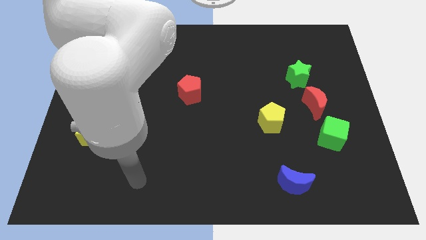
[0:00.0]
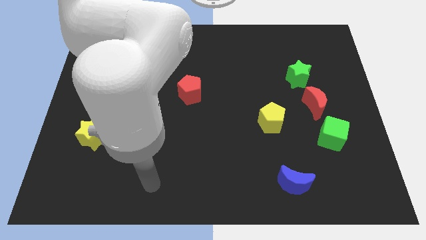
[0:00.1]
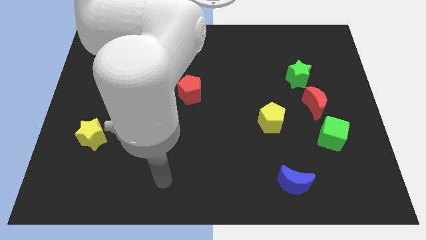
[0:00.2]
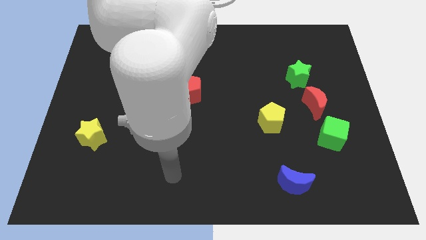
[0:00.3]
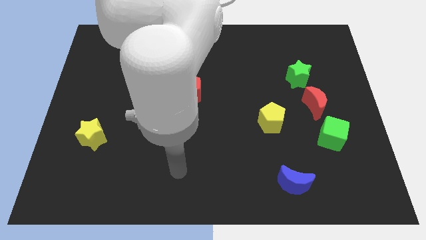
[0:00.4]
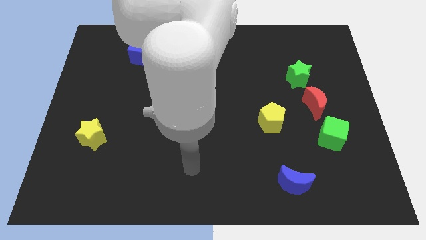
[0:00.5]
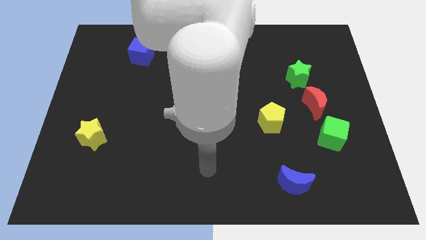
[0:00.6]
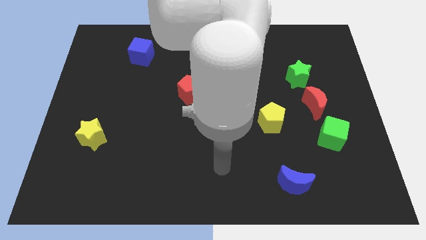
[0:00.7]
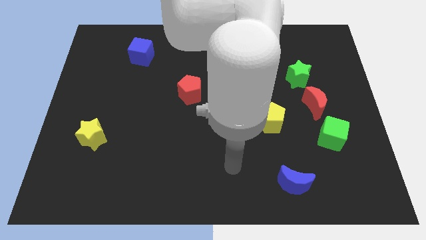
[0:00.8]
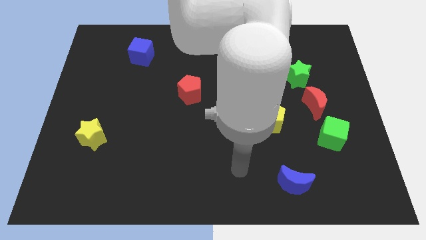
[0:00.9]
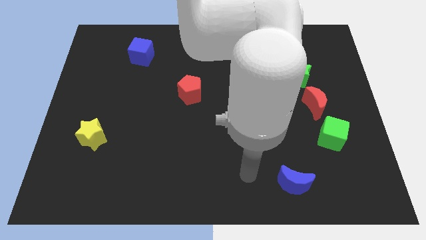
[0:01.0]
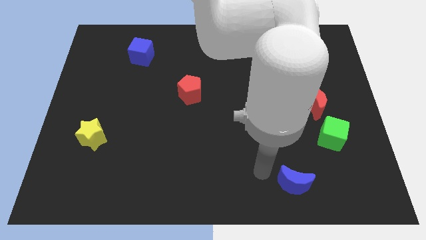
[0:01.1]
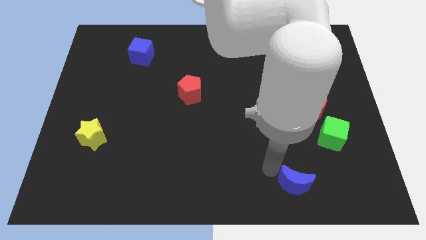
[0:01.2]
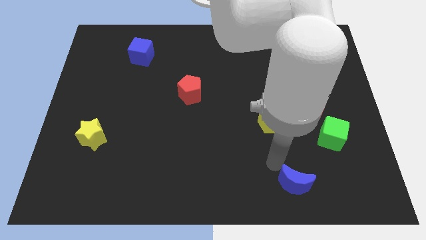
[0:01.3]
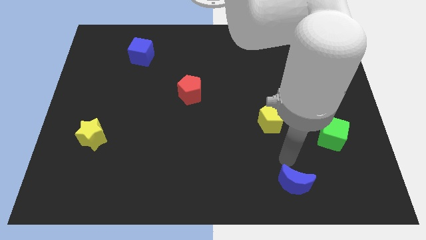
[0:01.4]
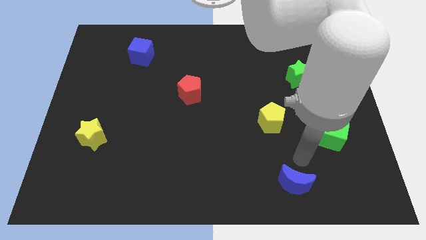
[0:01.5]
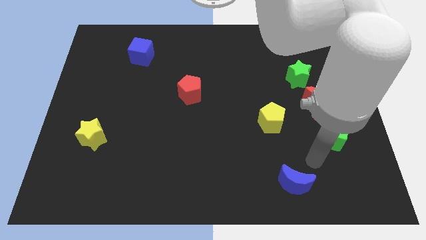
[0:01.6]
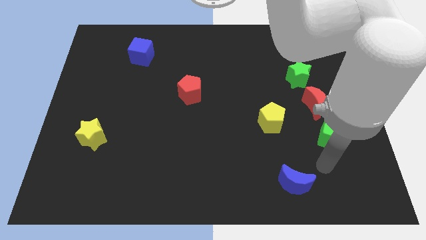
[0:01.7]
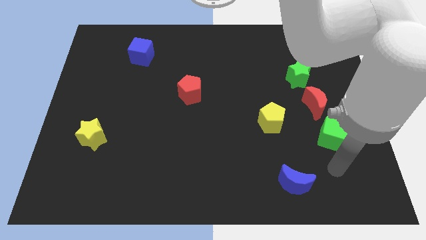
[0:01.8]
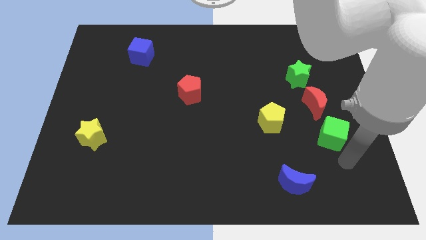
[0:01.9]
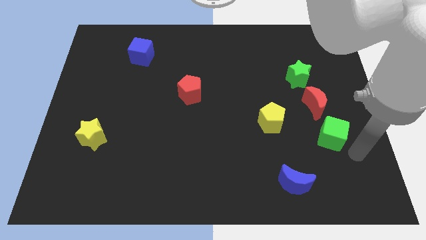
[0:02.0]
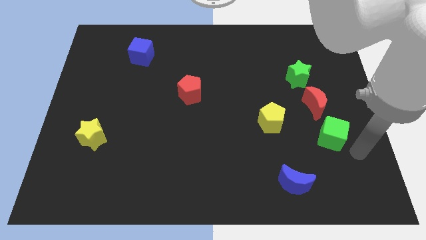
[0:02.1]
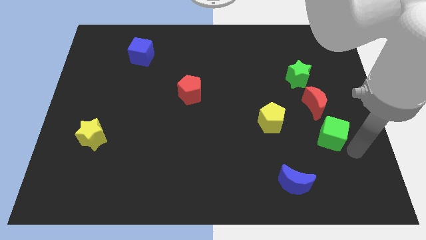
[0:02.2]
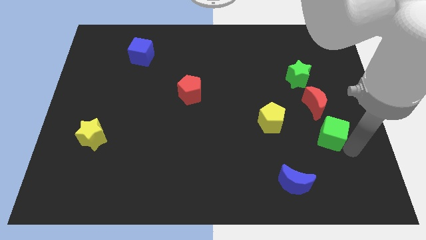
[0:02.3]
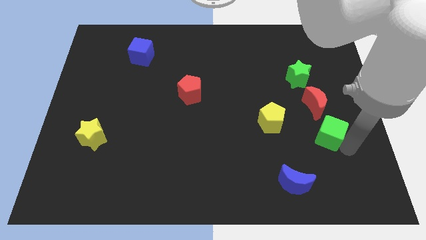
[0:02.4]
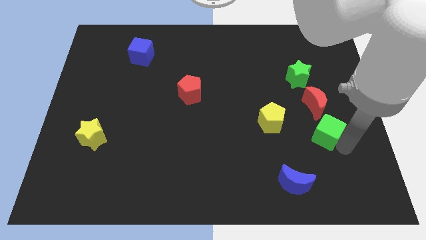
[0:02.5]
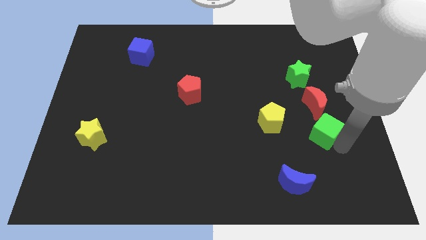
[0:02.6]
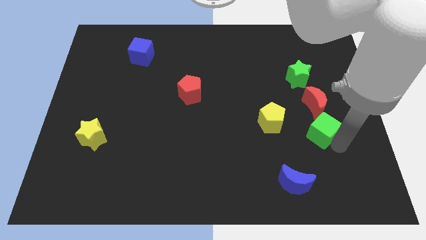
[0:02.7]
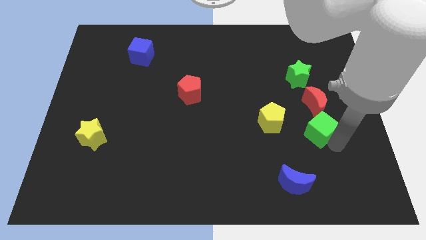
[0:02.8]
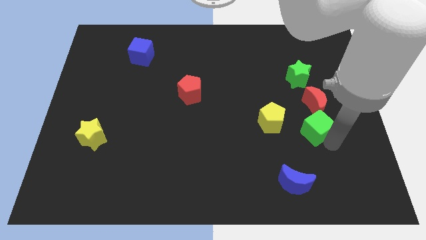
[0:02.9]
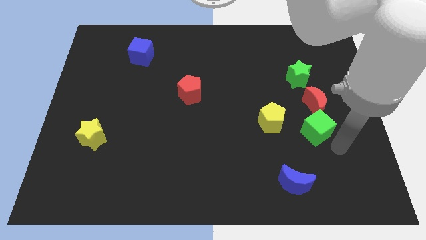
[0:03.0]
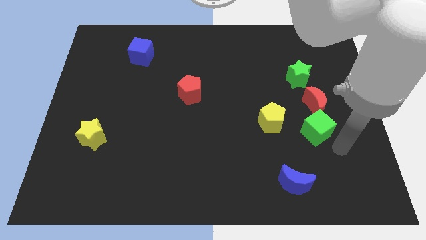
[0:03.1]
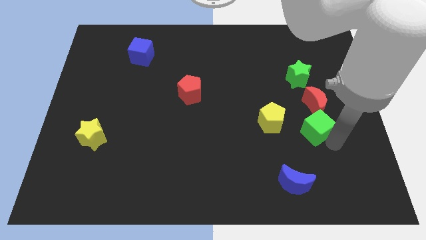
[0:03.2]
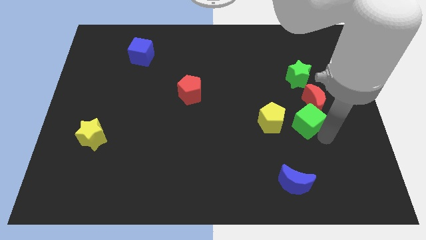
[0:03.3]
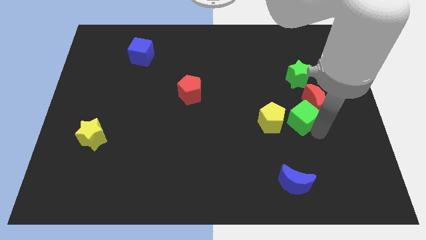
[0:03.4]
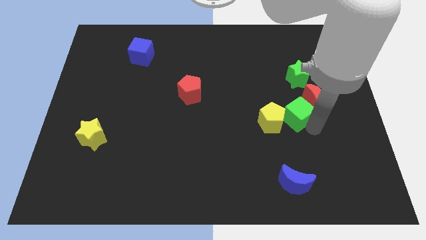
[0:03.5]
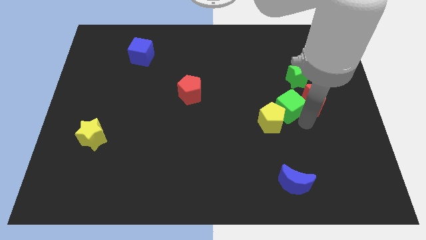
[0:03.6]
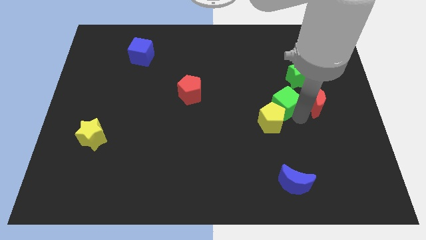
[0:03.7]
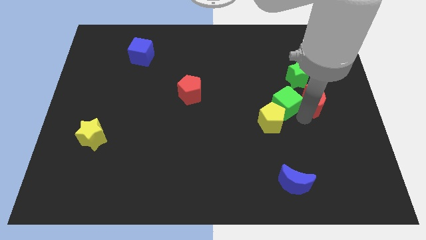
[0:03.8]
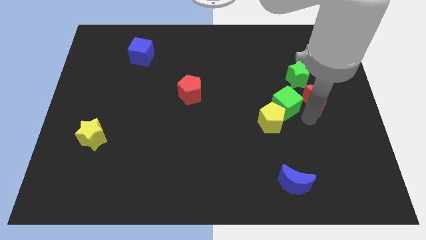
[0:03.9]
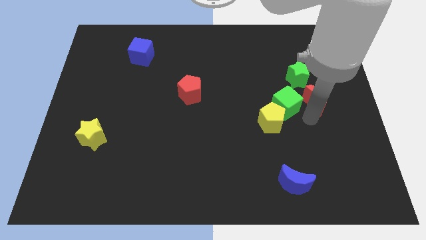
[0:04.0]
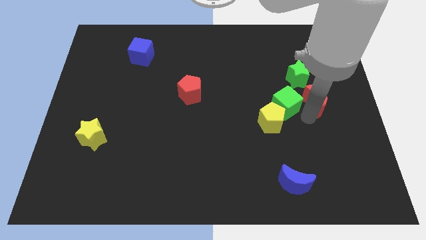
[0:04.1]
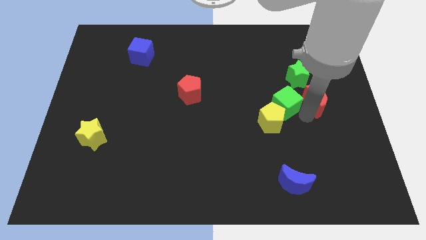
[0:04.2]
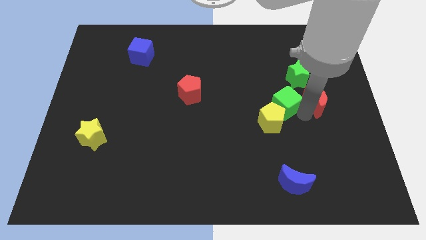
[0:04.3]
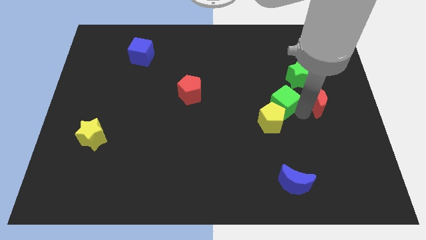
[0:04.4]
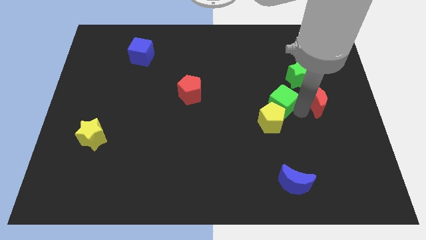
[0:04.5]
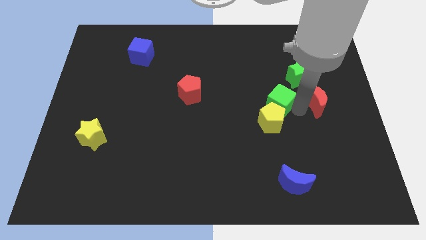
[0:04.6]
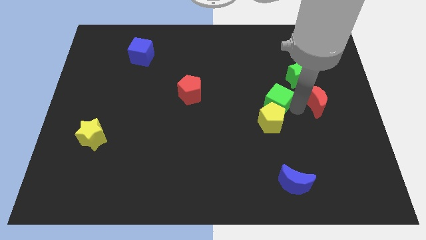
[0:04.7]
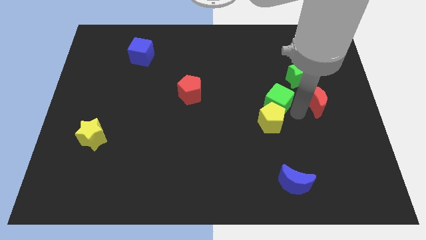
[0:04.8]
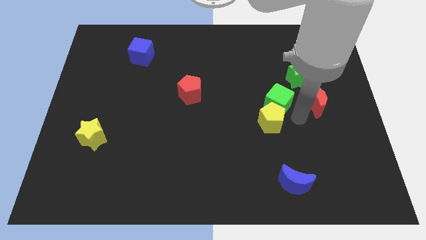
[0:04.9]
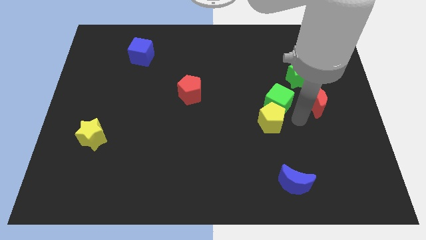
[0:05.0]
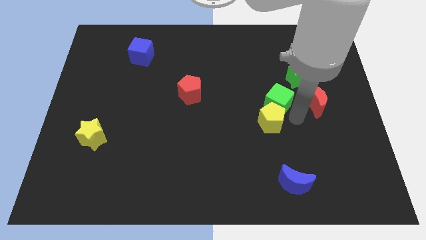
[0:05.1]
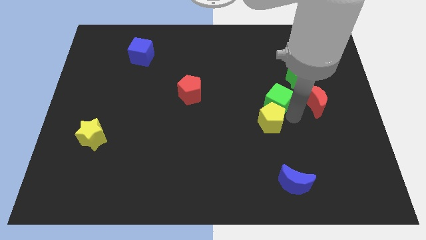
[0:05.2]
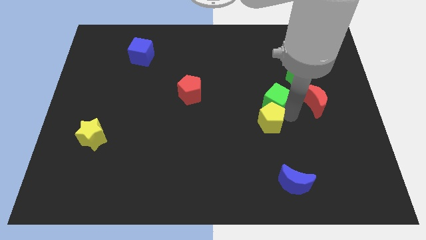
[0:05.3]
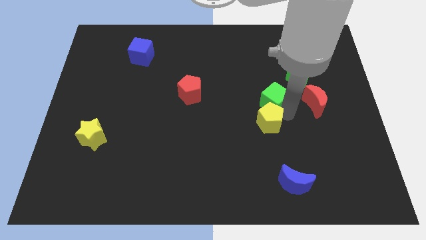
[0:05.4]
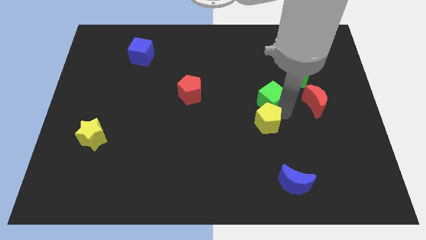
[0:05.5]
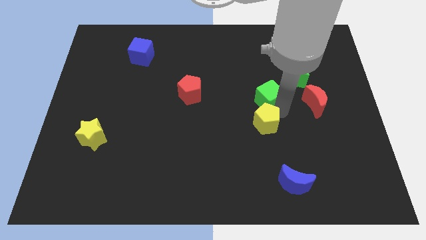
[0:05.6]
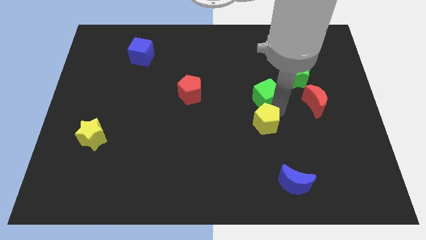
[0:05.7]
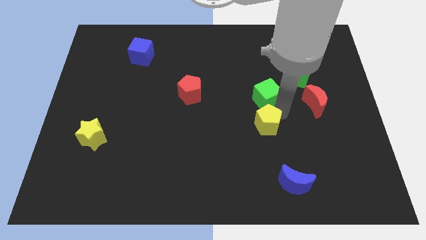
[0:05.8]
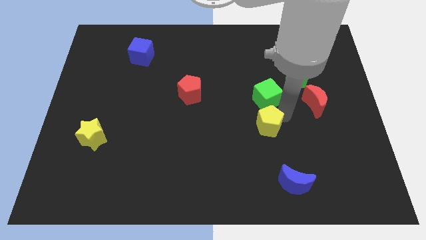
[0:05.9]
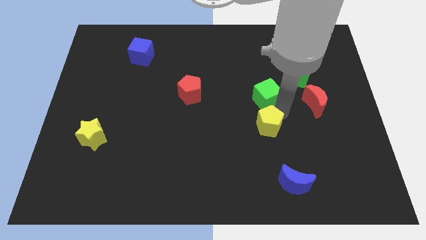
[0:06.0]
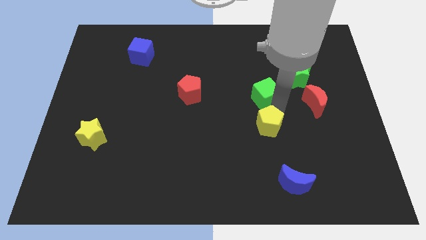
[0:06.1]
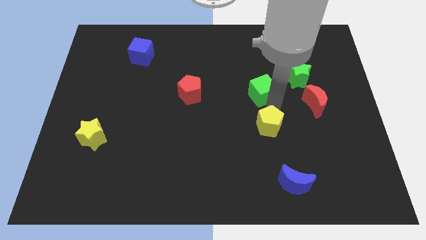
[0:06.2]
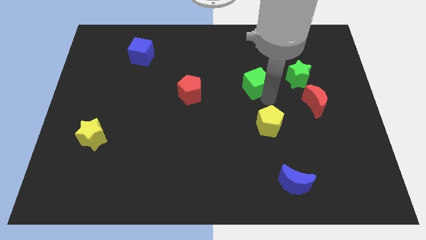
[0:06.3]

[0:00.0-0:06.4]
slide the green cube up and then left

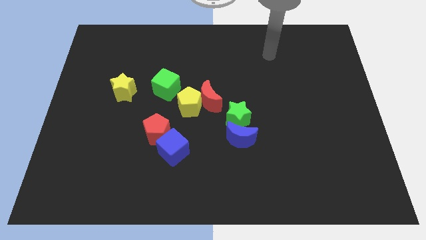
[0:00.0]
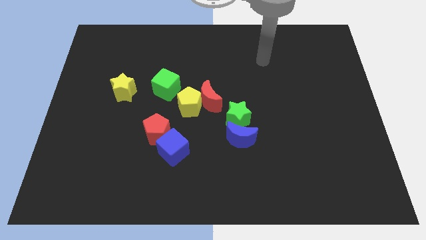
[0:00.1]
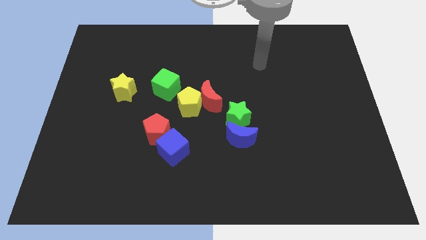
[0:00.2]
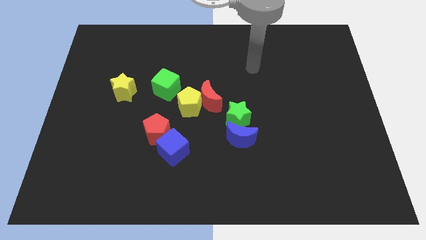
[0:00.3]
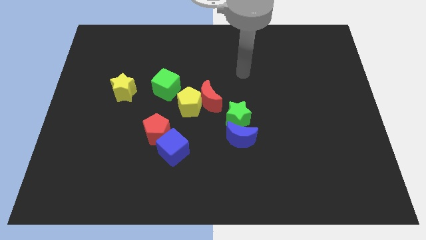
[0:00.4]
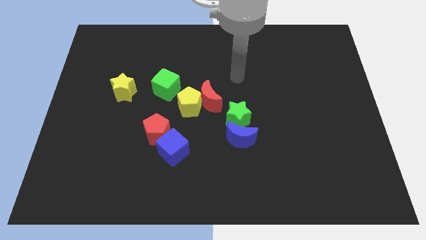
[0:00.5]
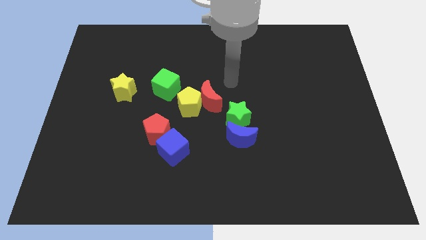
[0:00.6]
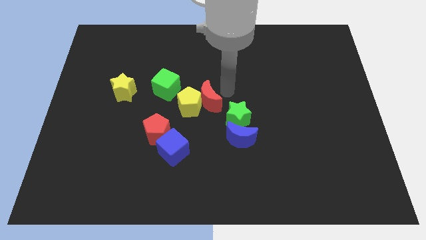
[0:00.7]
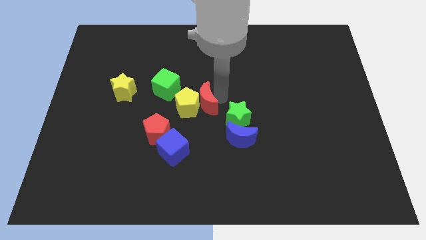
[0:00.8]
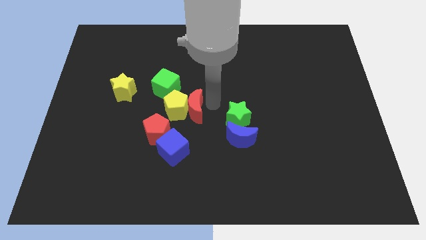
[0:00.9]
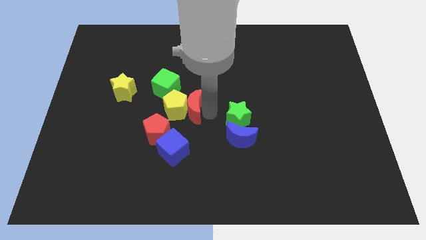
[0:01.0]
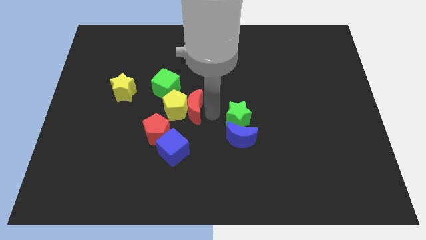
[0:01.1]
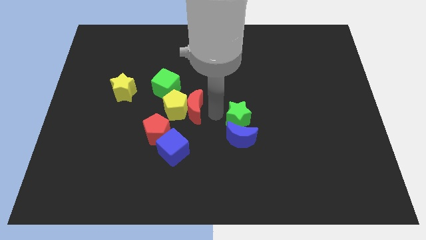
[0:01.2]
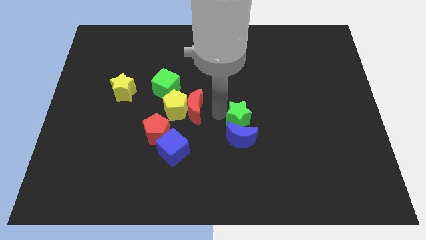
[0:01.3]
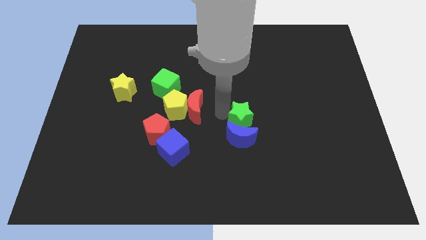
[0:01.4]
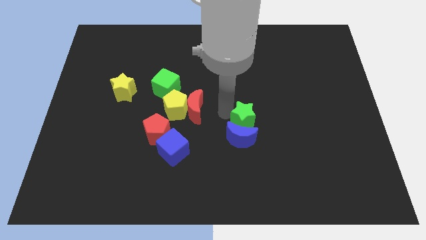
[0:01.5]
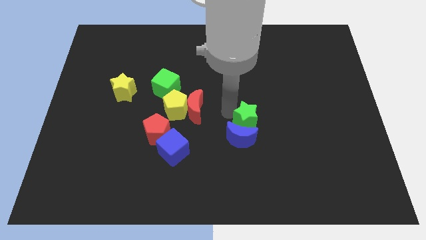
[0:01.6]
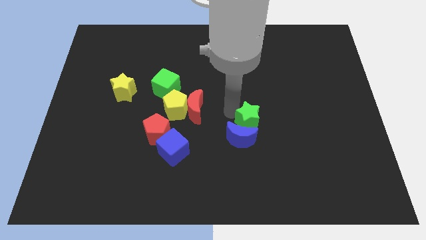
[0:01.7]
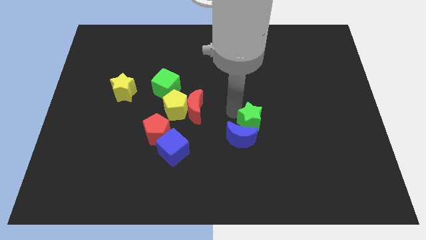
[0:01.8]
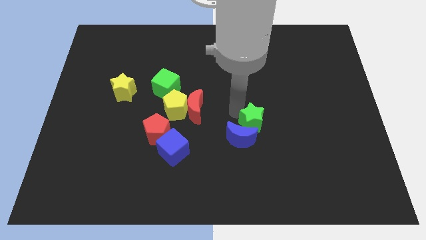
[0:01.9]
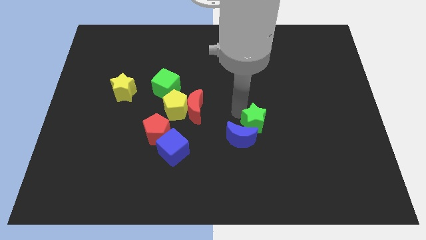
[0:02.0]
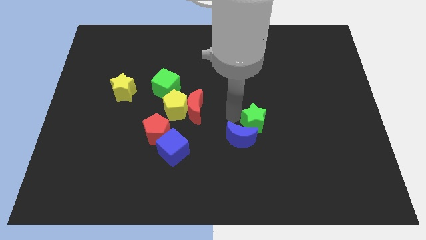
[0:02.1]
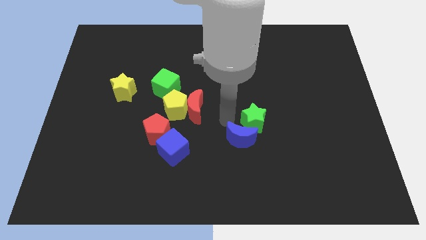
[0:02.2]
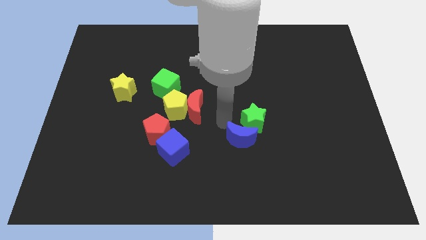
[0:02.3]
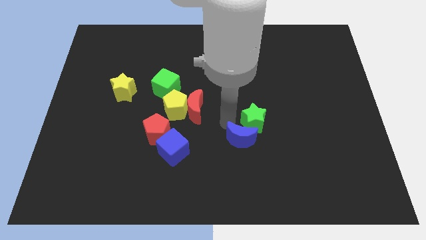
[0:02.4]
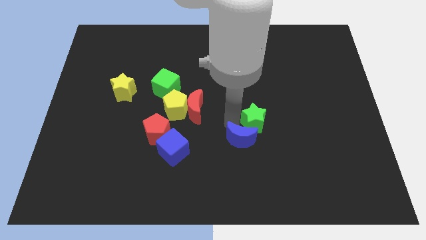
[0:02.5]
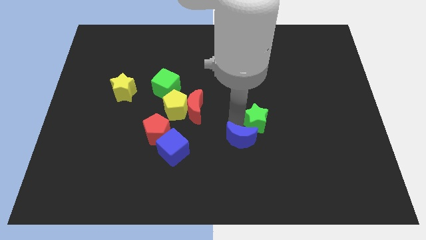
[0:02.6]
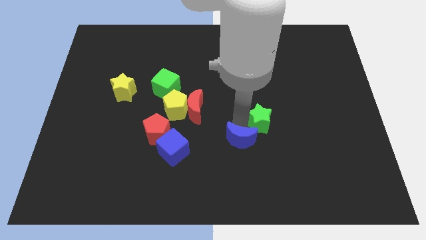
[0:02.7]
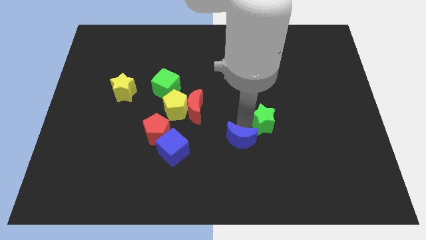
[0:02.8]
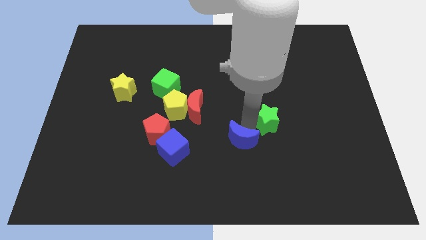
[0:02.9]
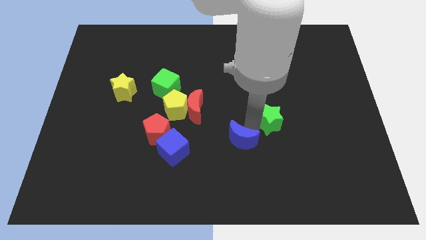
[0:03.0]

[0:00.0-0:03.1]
move the green star to the right slightly
